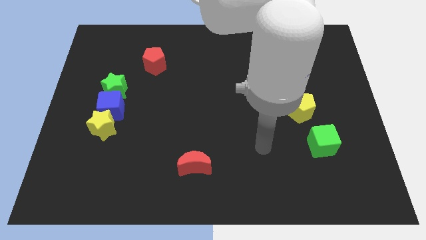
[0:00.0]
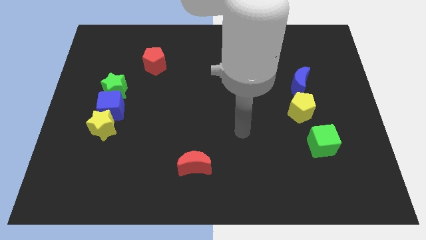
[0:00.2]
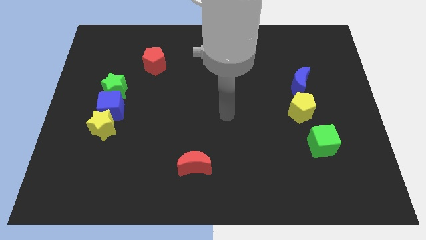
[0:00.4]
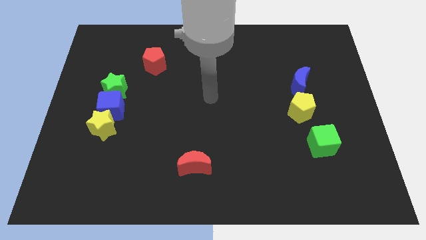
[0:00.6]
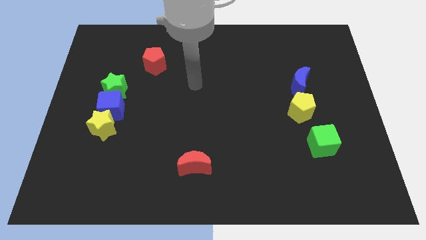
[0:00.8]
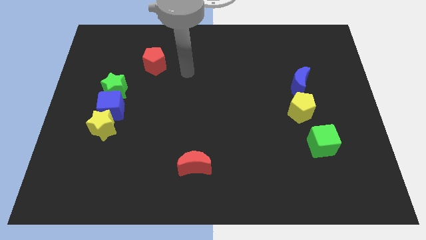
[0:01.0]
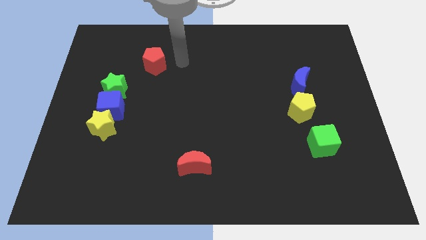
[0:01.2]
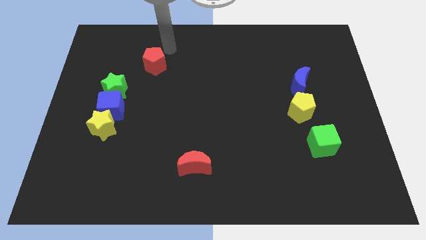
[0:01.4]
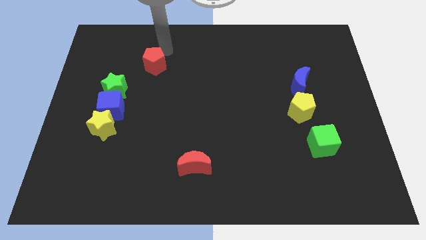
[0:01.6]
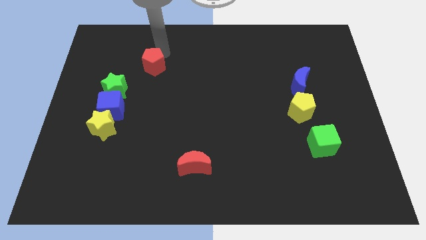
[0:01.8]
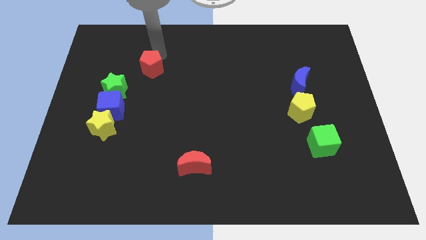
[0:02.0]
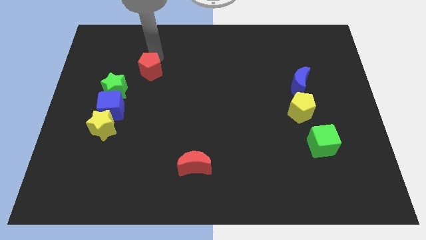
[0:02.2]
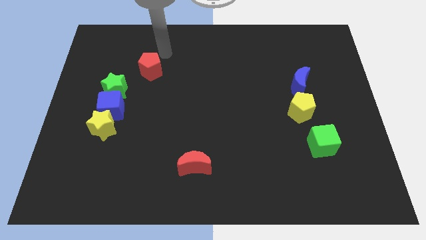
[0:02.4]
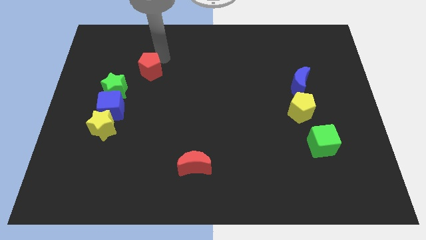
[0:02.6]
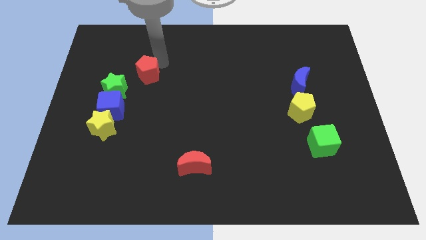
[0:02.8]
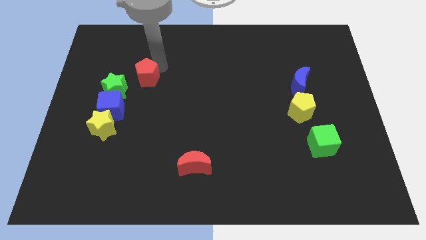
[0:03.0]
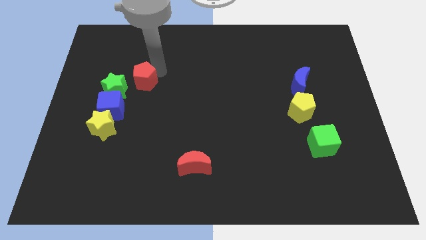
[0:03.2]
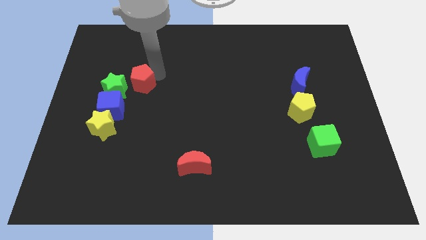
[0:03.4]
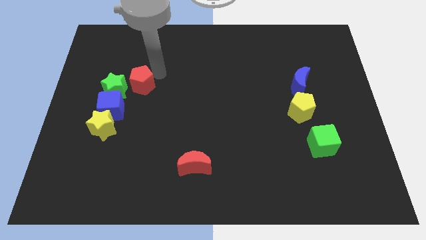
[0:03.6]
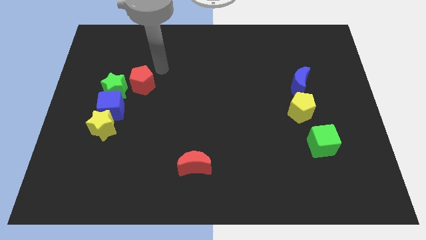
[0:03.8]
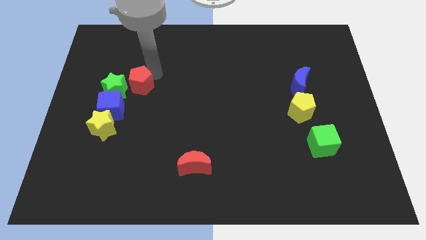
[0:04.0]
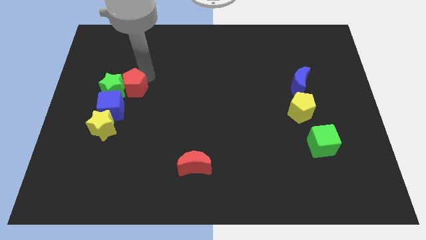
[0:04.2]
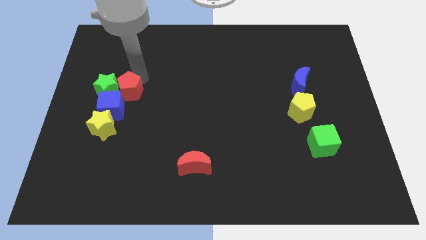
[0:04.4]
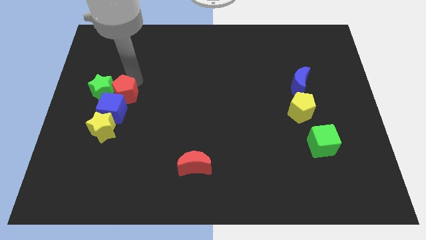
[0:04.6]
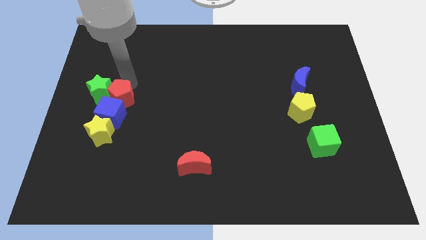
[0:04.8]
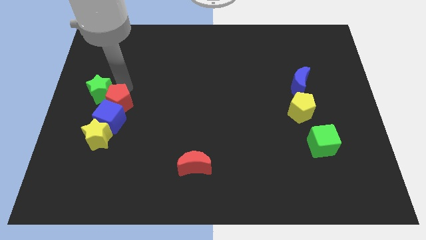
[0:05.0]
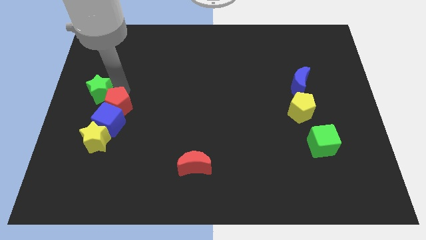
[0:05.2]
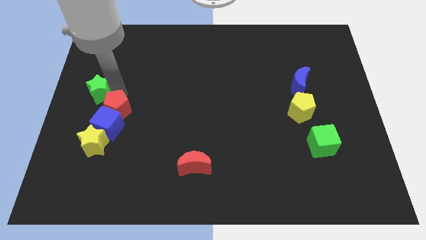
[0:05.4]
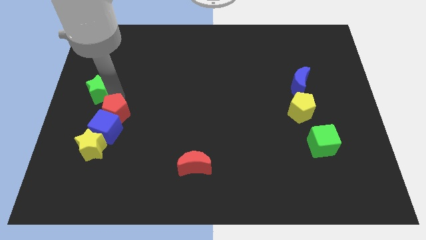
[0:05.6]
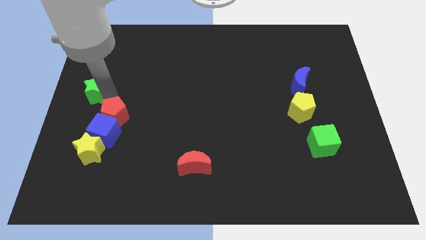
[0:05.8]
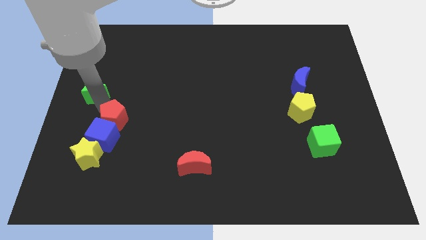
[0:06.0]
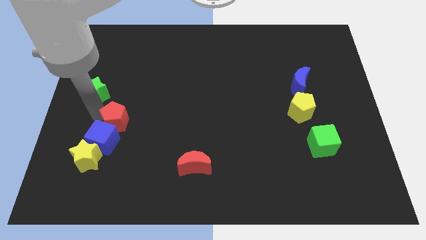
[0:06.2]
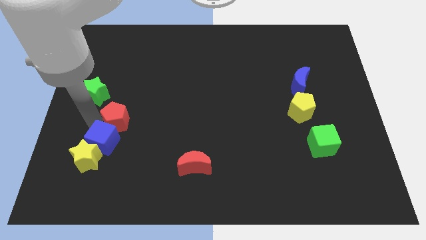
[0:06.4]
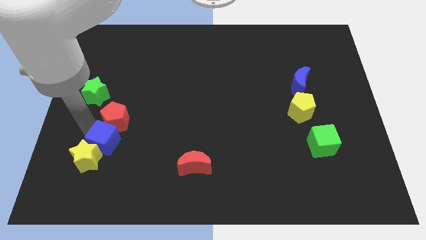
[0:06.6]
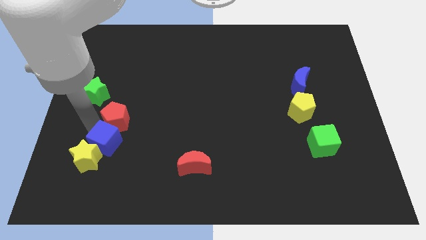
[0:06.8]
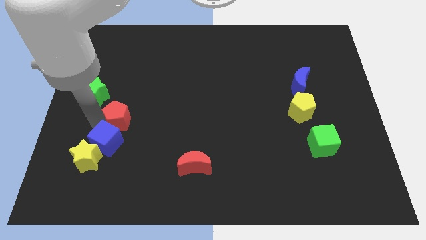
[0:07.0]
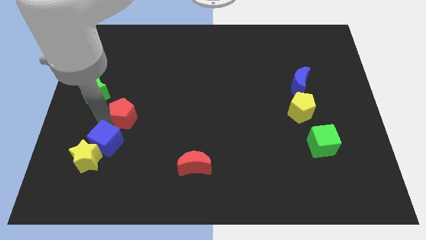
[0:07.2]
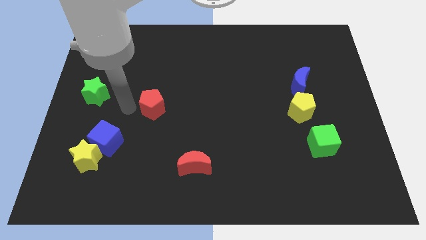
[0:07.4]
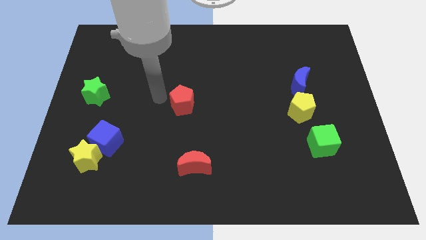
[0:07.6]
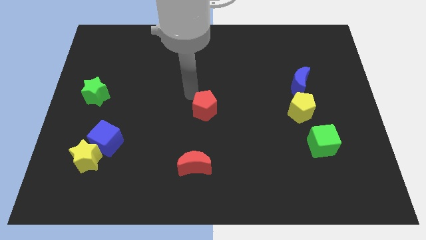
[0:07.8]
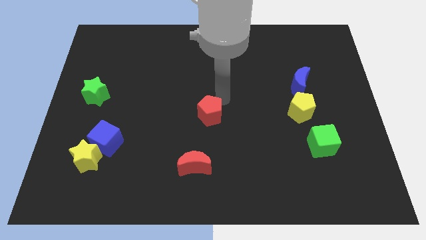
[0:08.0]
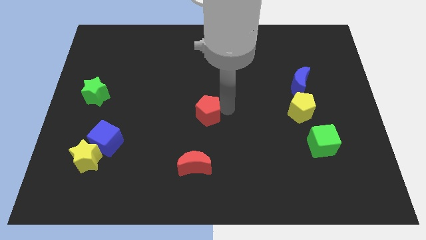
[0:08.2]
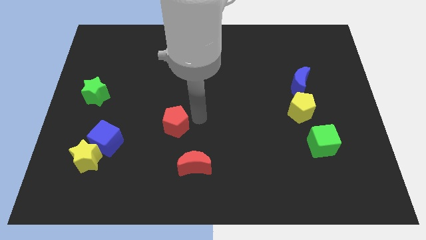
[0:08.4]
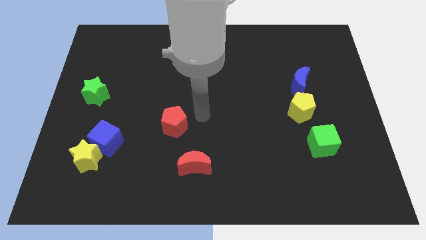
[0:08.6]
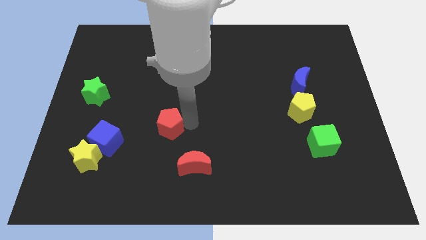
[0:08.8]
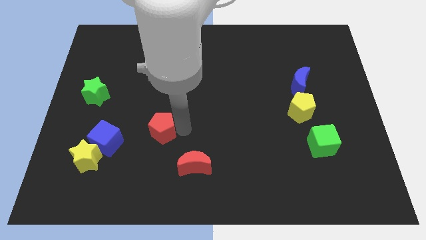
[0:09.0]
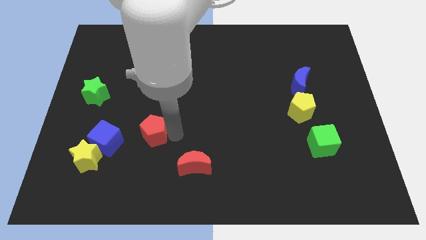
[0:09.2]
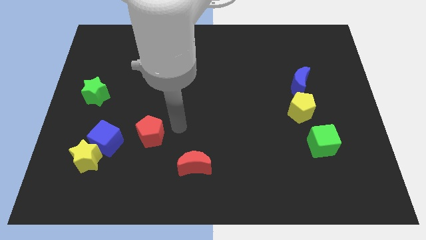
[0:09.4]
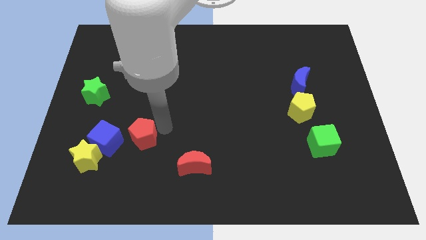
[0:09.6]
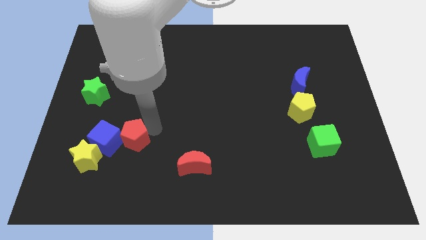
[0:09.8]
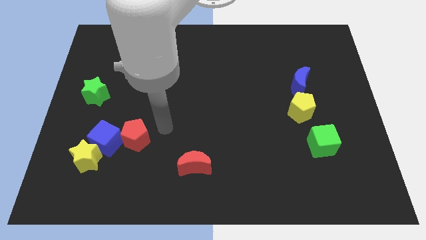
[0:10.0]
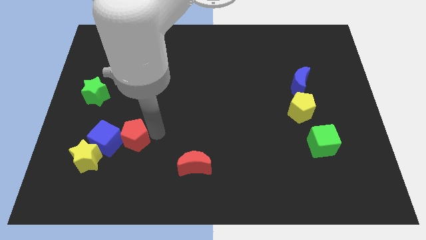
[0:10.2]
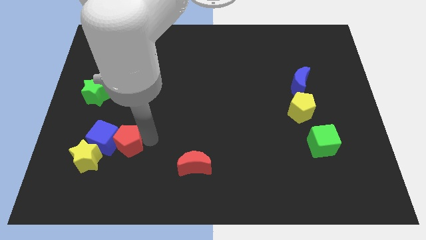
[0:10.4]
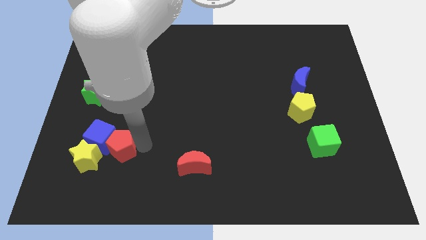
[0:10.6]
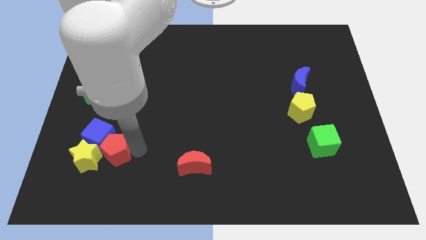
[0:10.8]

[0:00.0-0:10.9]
put the red pentagon next to the yellow star

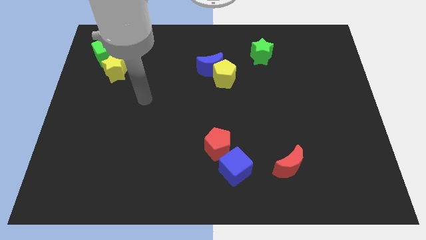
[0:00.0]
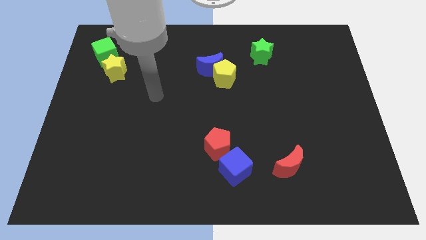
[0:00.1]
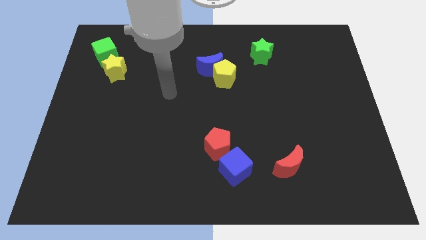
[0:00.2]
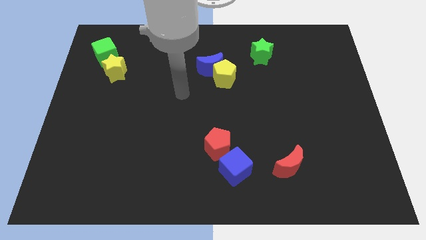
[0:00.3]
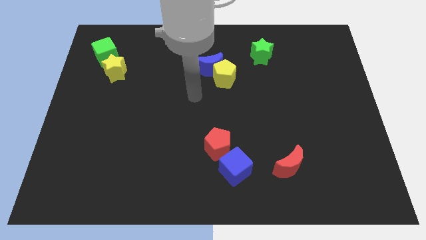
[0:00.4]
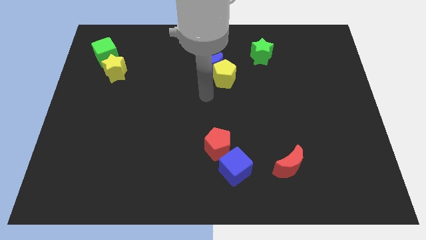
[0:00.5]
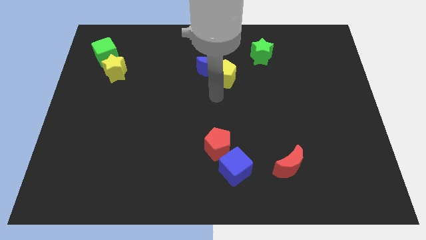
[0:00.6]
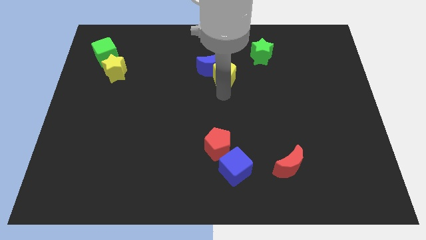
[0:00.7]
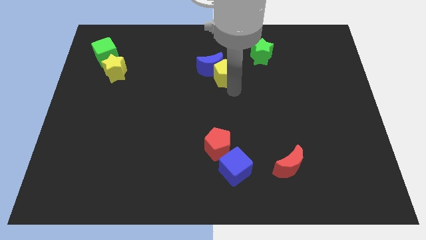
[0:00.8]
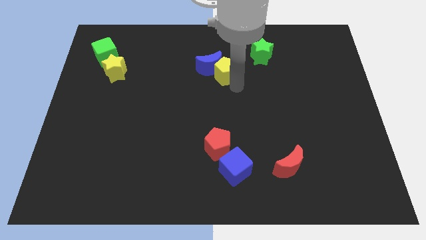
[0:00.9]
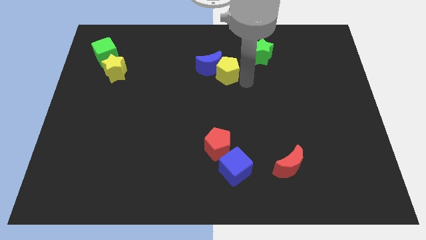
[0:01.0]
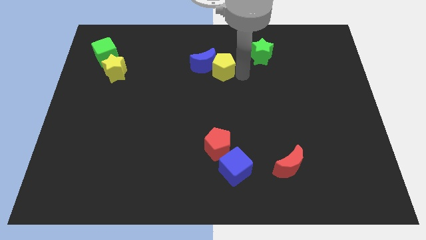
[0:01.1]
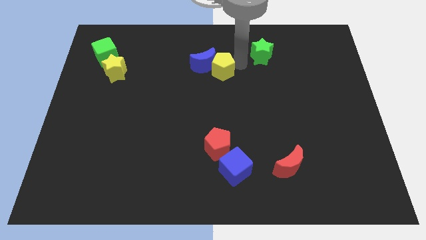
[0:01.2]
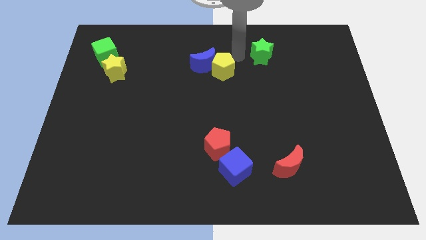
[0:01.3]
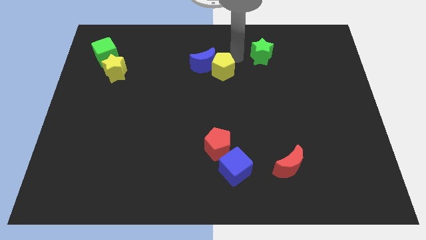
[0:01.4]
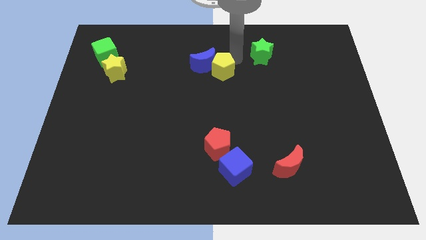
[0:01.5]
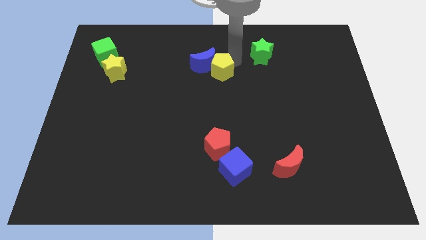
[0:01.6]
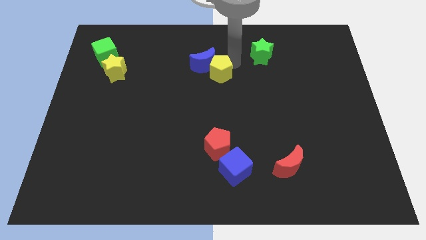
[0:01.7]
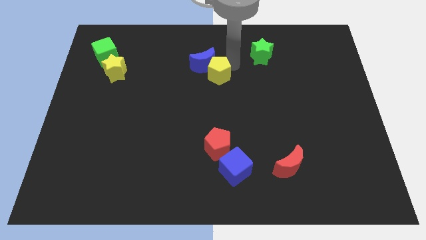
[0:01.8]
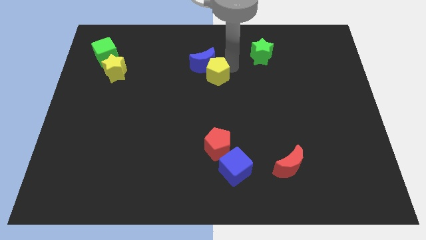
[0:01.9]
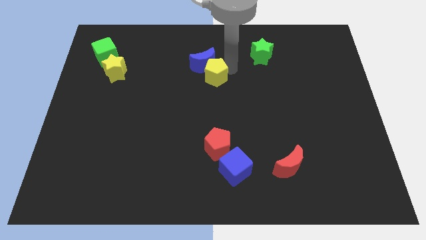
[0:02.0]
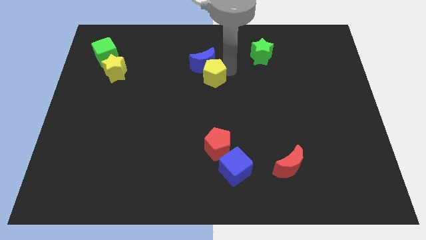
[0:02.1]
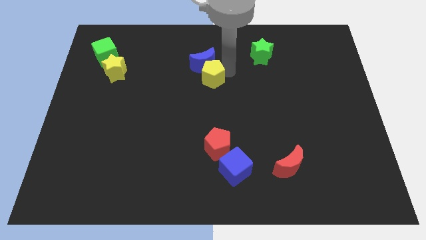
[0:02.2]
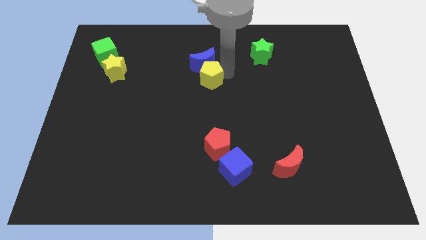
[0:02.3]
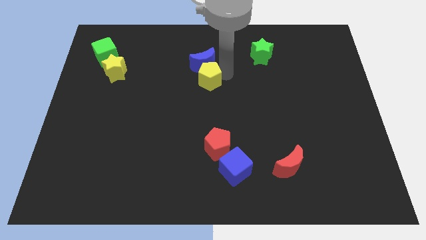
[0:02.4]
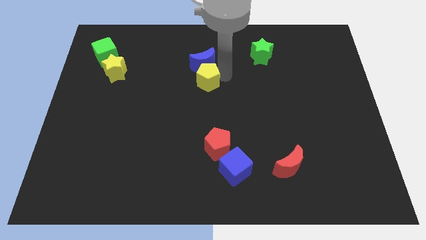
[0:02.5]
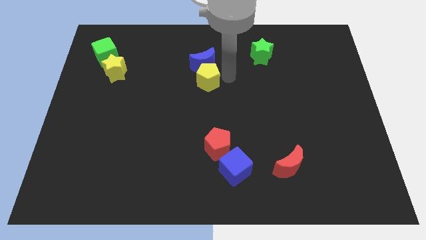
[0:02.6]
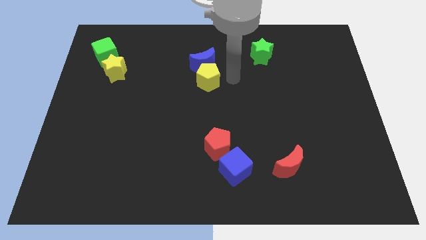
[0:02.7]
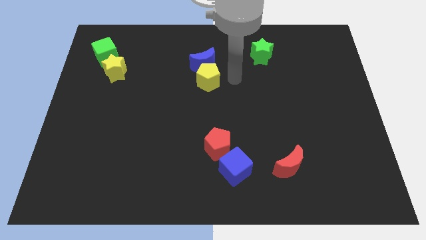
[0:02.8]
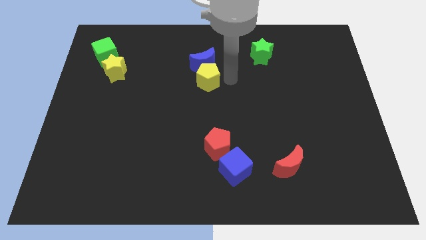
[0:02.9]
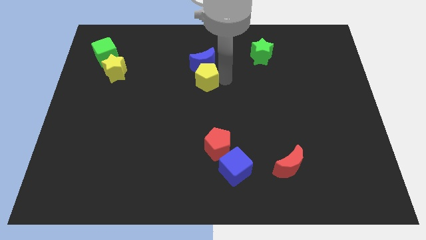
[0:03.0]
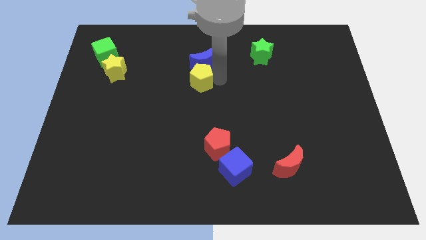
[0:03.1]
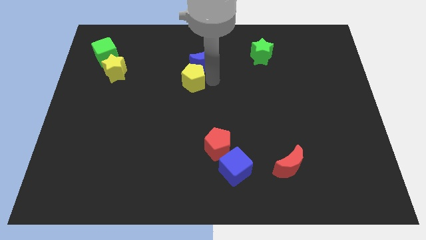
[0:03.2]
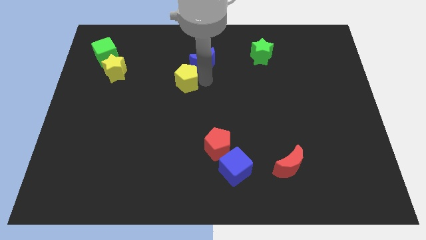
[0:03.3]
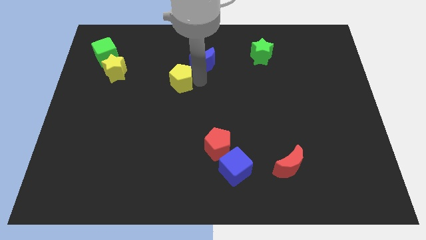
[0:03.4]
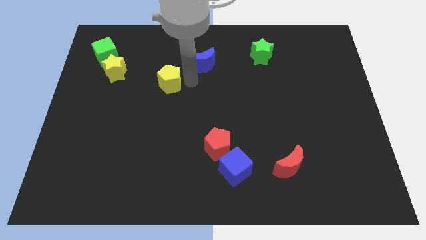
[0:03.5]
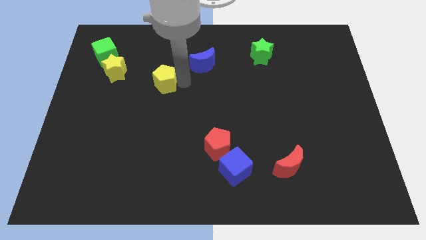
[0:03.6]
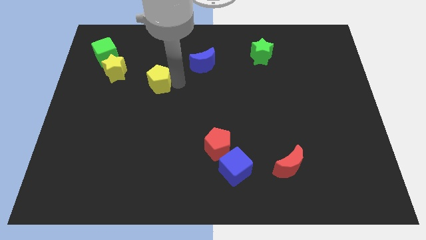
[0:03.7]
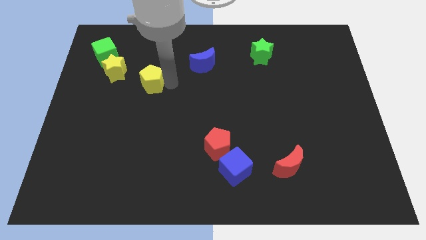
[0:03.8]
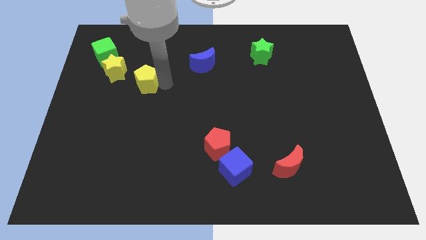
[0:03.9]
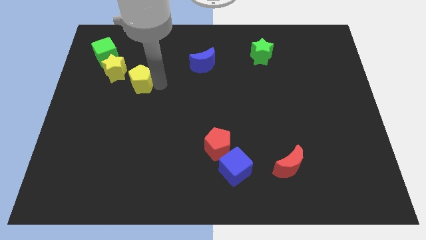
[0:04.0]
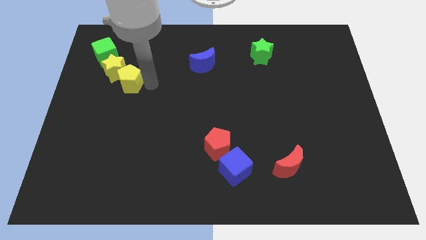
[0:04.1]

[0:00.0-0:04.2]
put the yellow pentagon towards the yellow star
